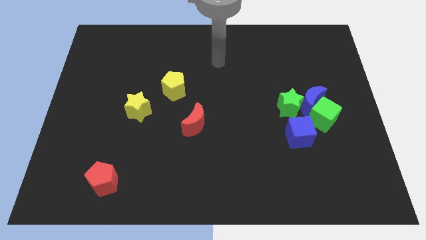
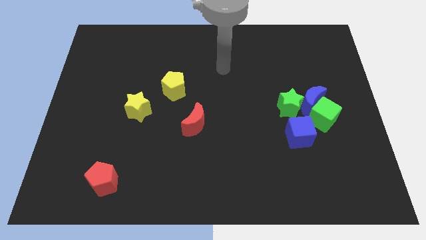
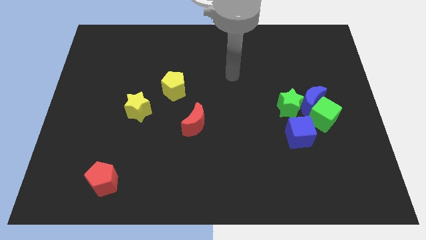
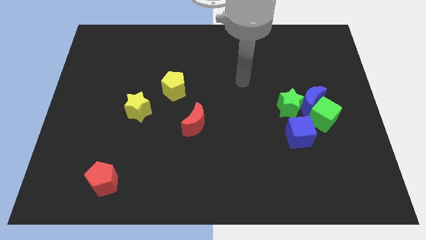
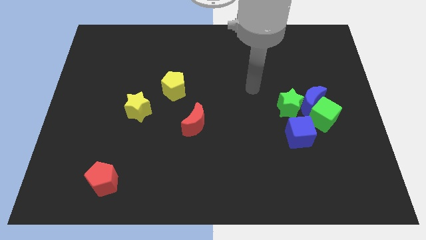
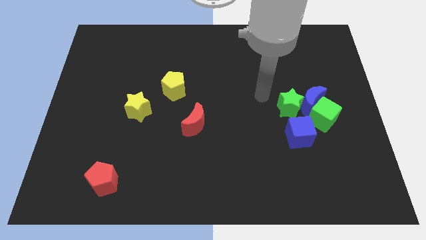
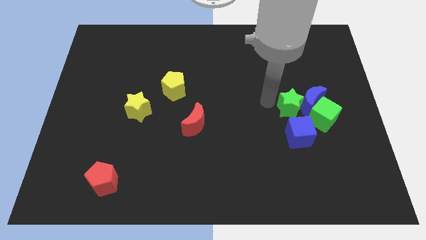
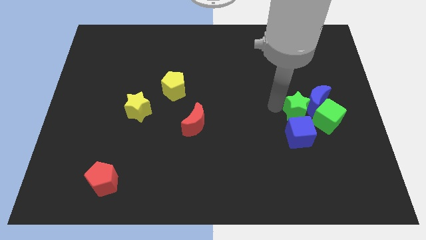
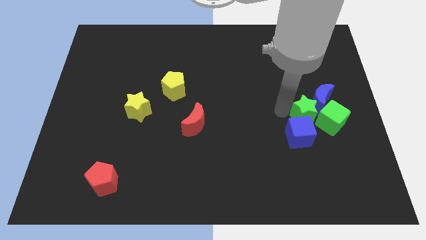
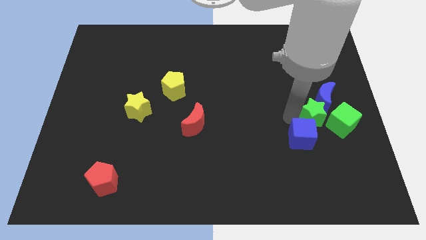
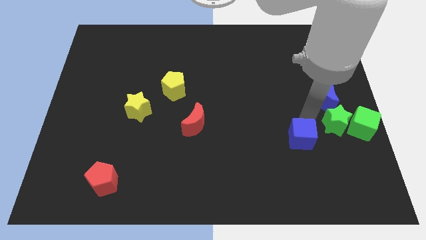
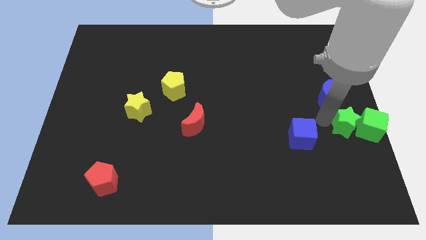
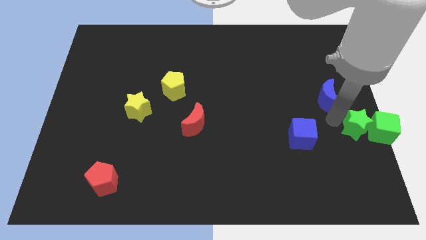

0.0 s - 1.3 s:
separate the blue moon from the group of blocks

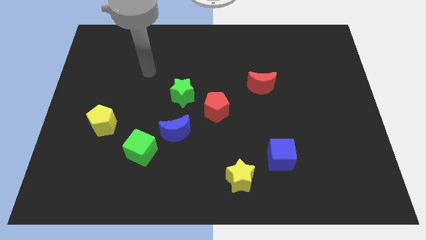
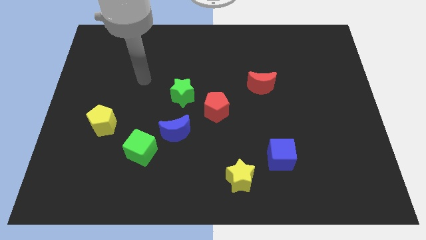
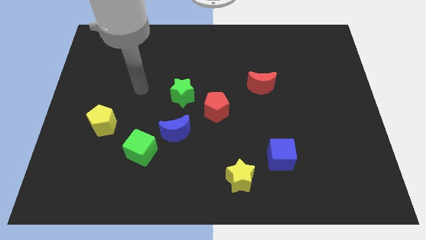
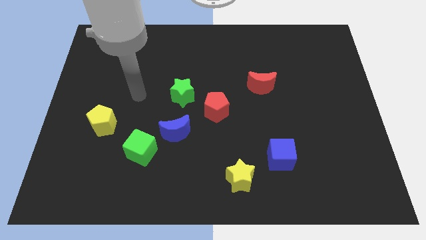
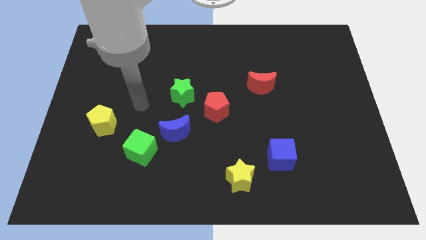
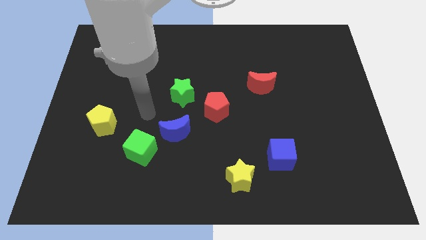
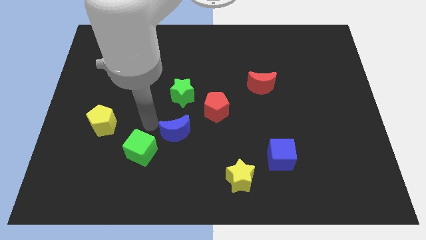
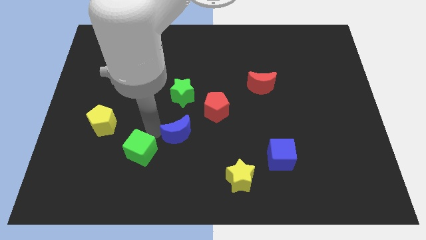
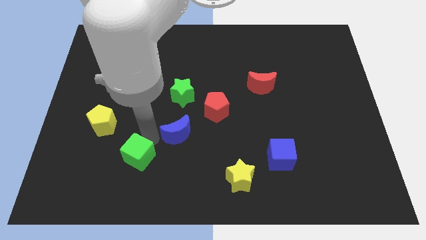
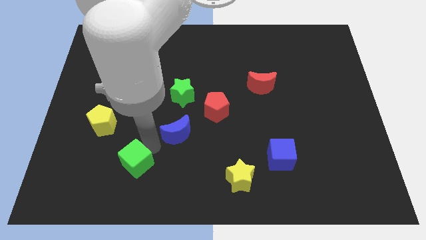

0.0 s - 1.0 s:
pull the blue moon apart from the green cube

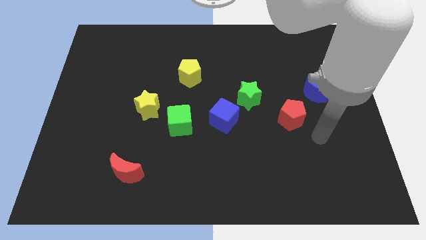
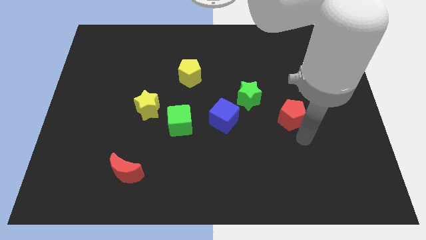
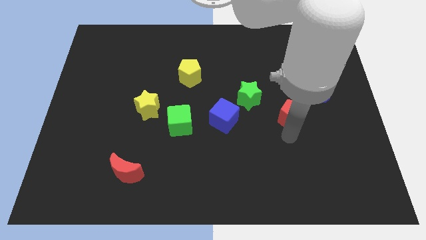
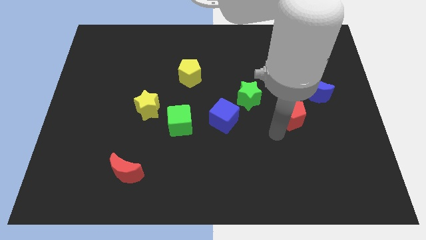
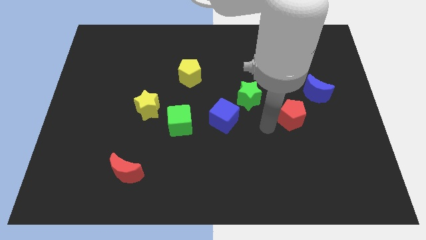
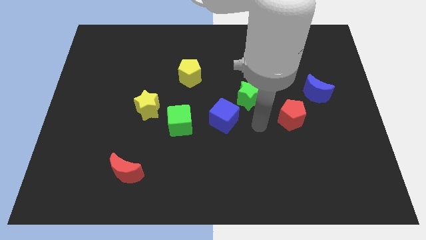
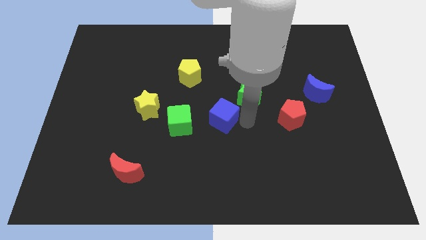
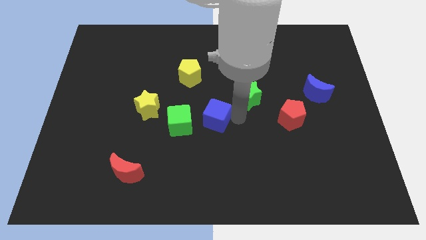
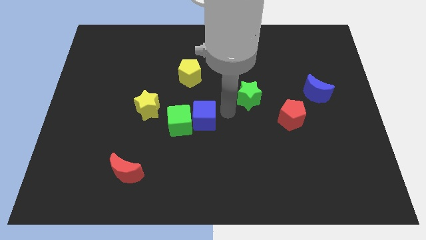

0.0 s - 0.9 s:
pull the green star apart from the blue cube

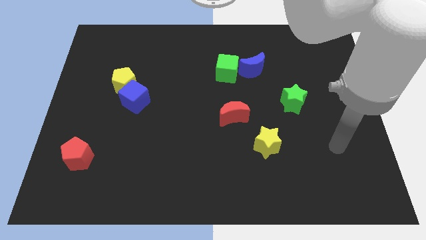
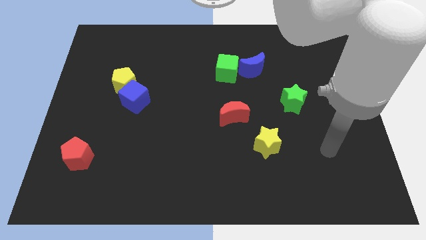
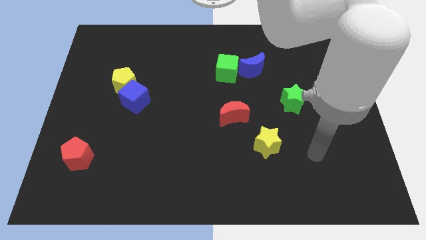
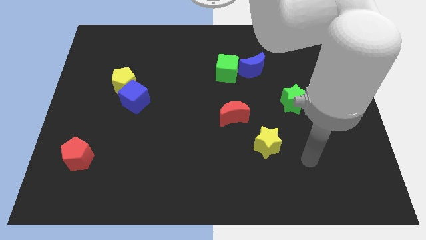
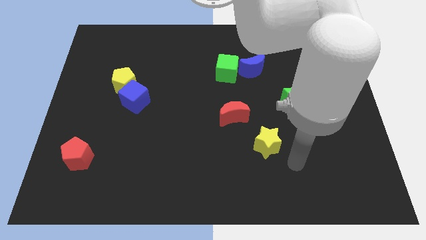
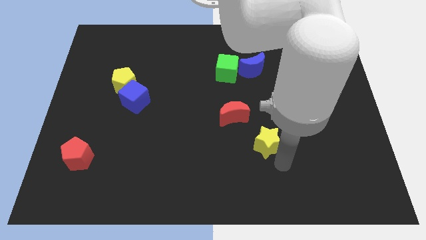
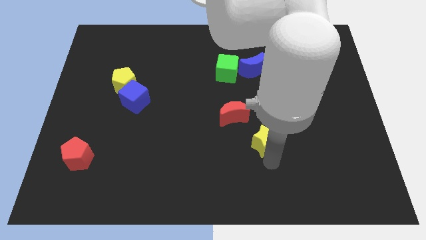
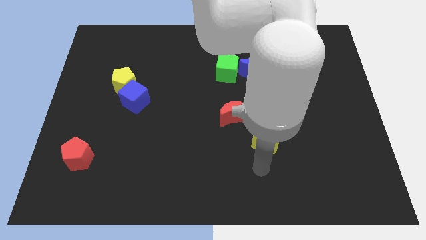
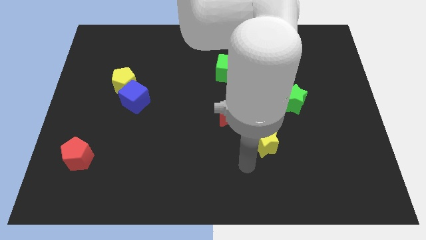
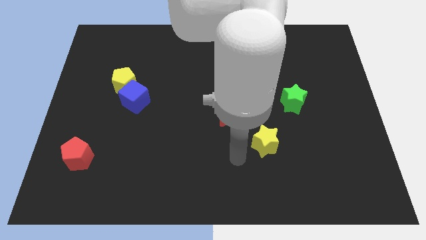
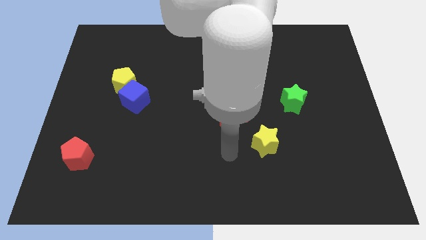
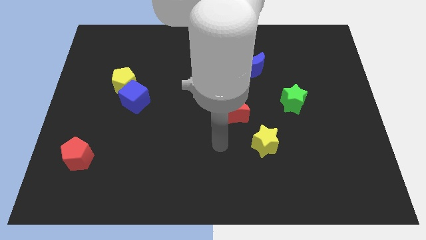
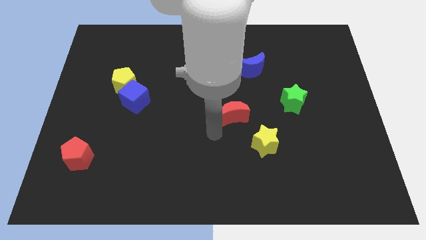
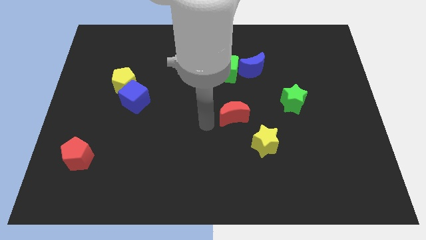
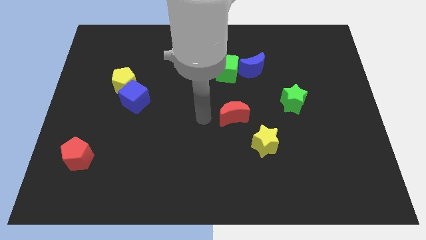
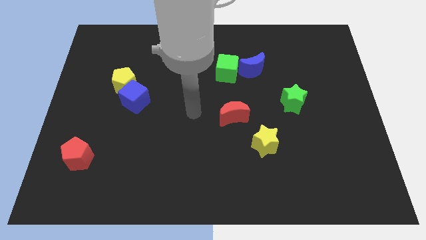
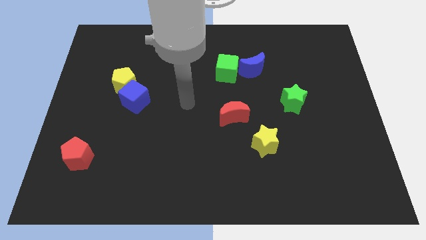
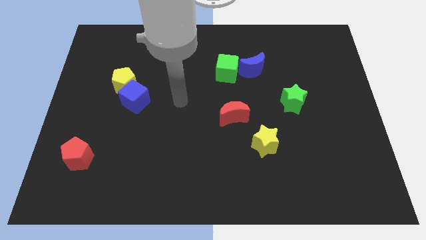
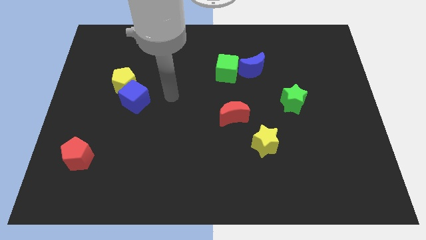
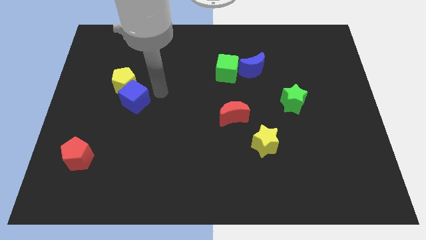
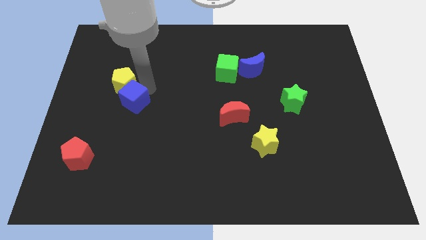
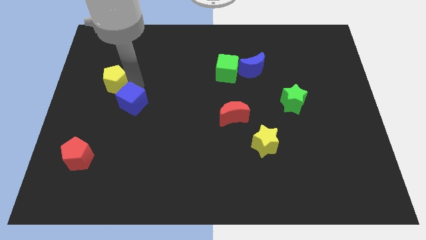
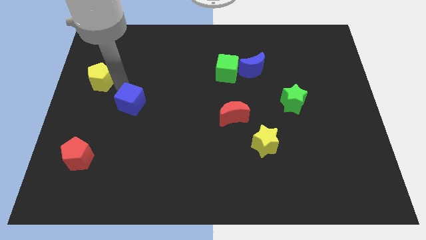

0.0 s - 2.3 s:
move the blue cube away from the yellow pentagon

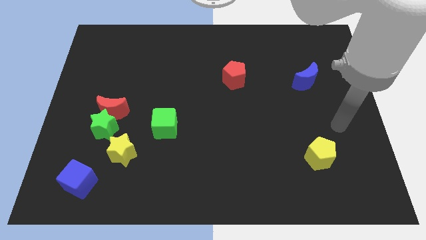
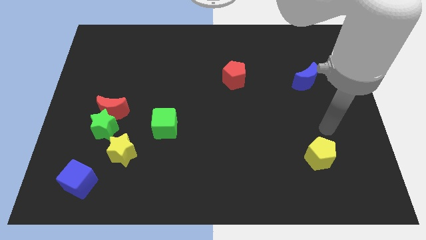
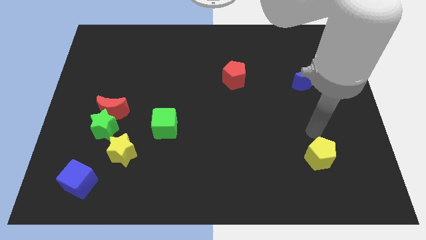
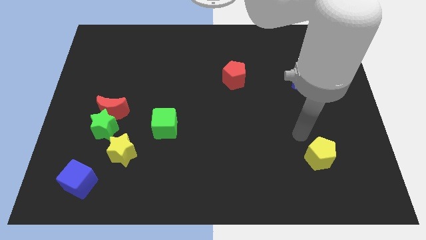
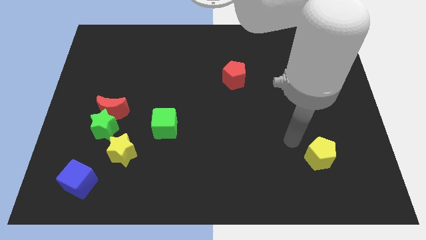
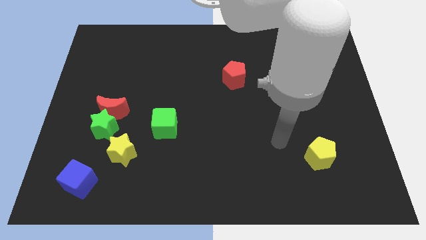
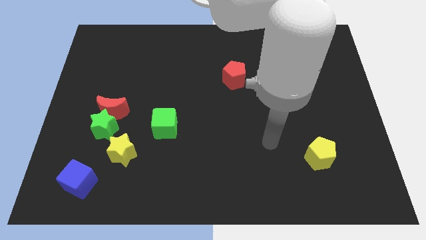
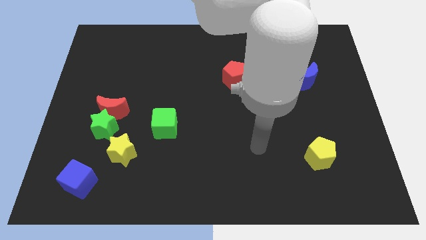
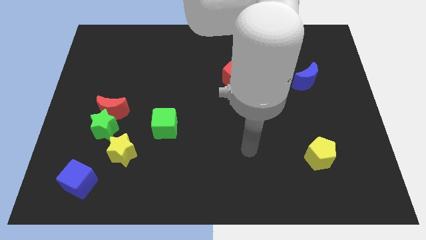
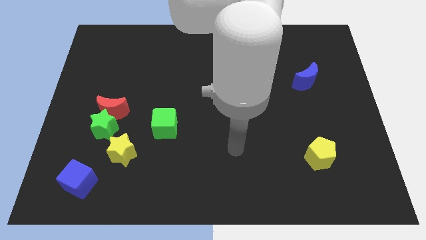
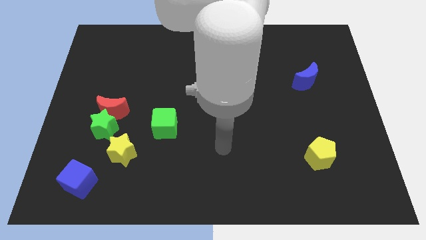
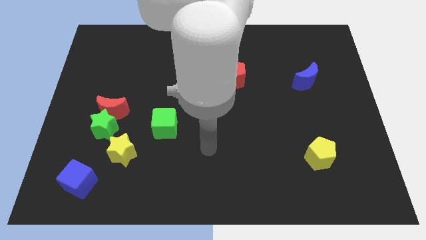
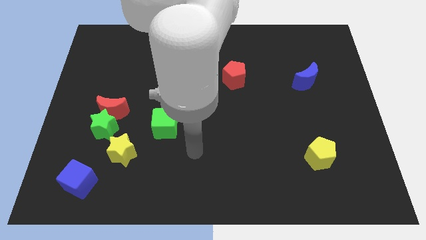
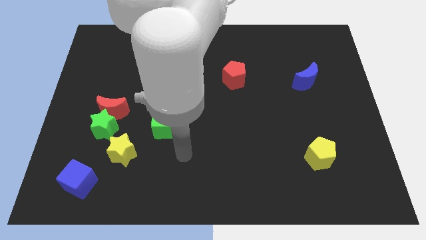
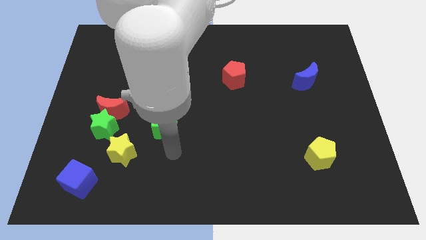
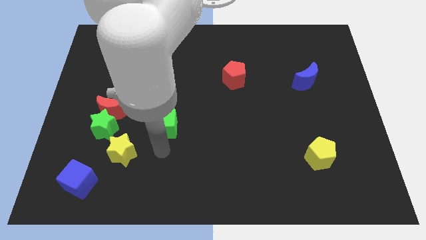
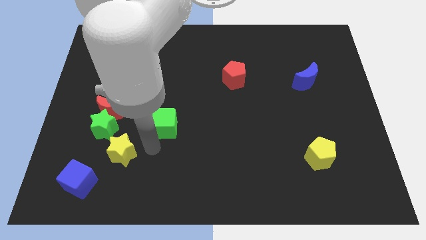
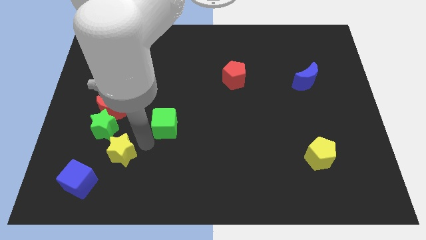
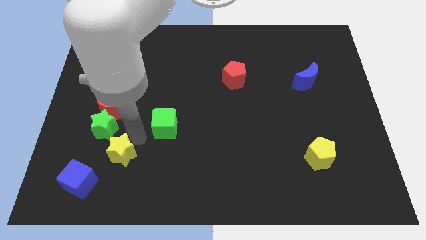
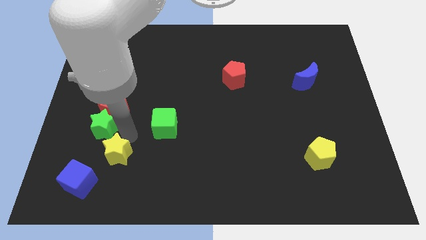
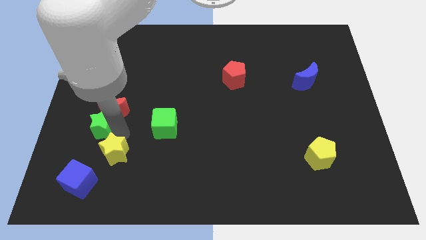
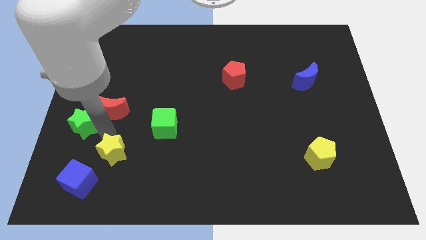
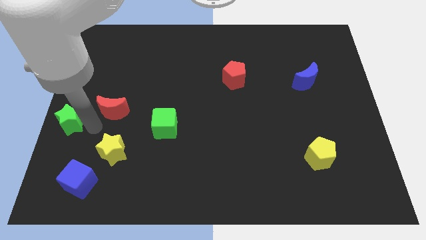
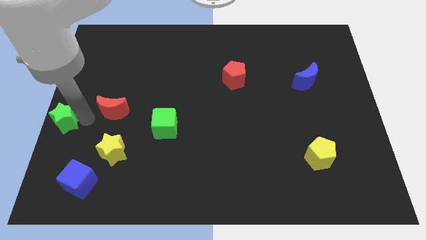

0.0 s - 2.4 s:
move the red moon away from the green star

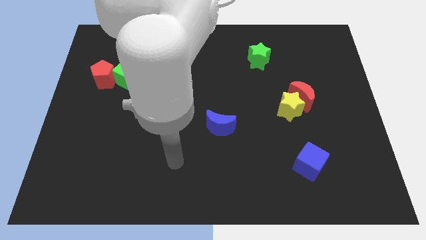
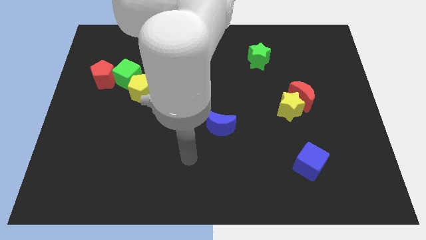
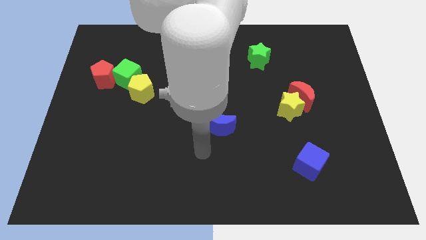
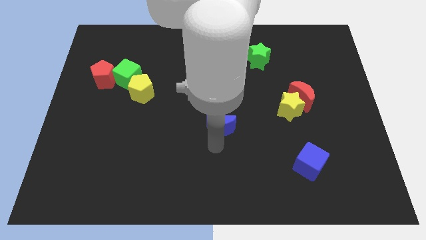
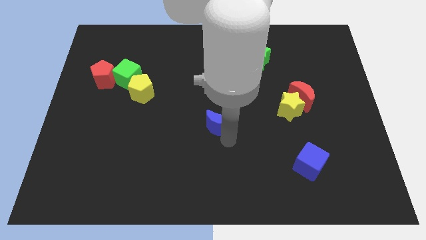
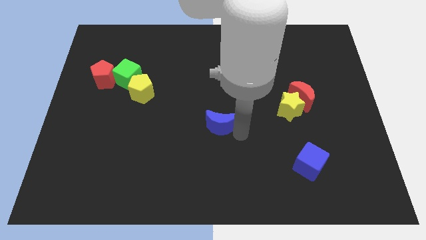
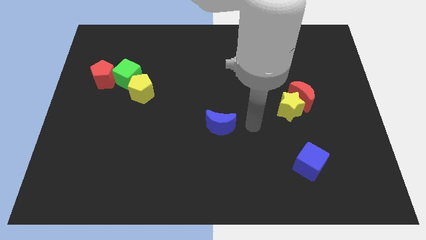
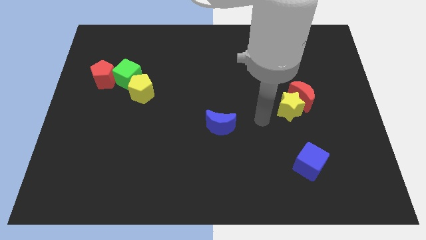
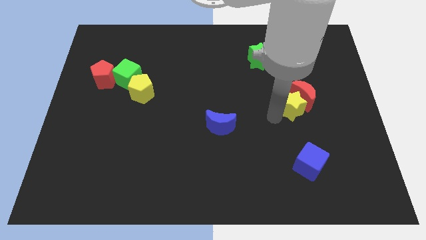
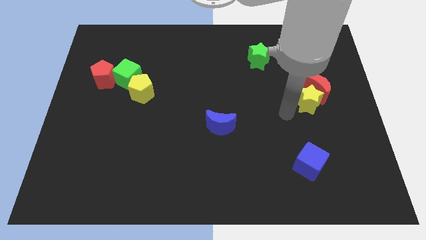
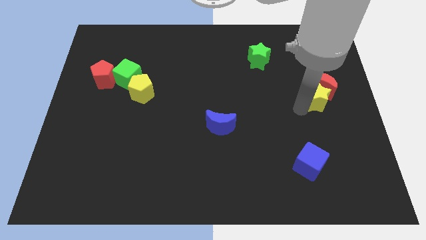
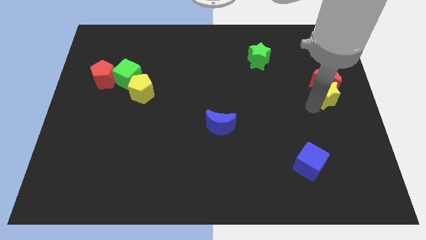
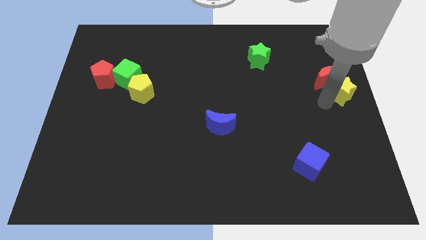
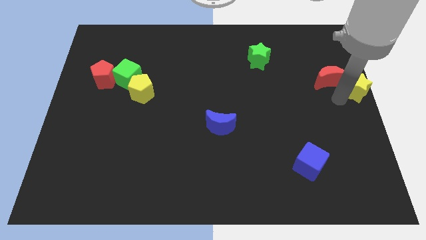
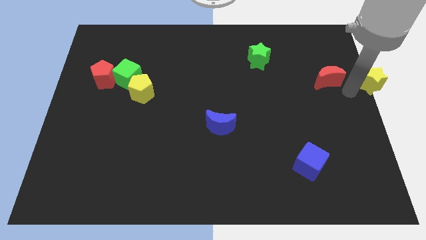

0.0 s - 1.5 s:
pull the red moon apart from the yellow star
